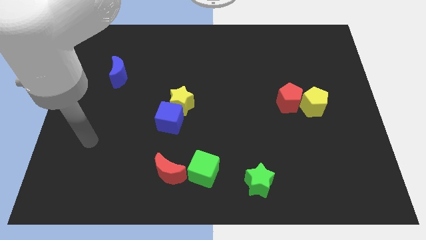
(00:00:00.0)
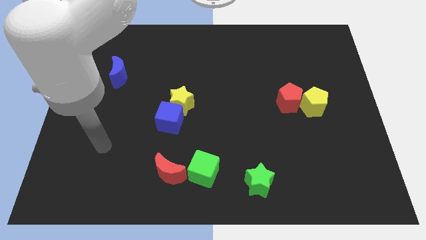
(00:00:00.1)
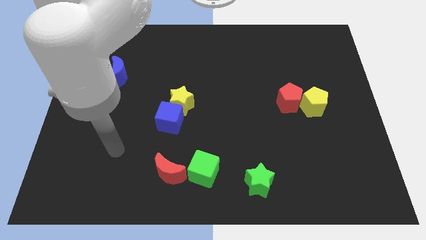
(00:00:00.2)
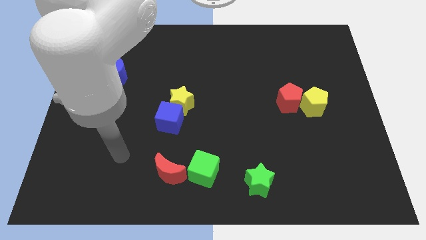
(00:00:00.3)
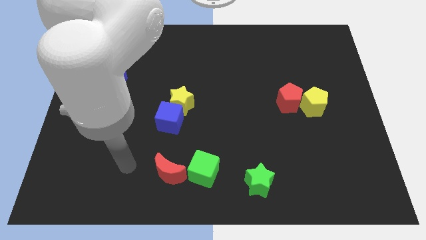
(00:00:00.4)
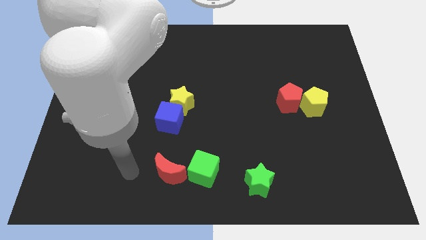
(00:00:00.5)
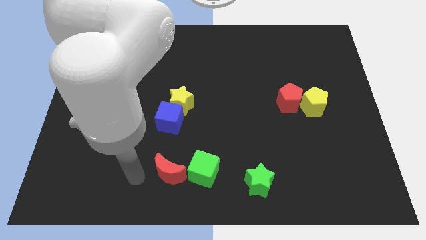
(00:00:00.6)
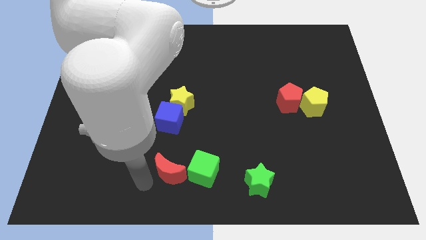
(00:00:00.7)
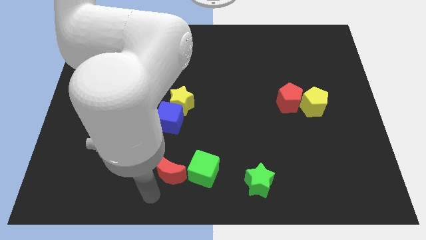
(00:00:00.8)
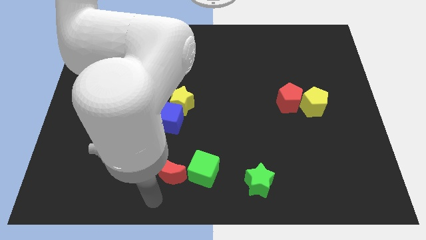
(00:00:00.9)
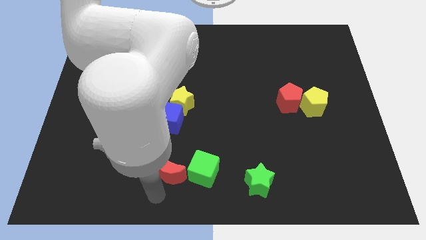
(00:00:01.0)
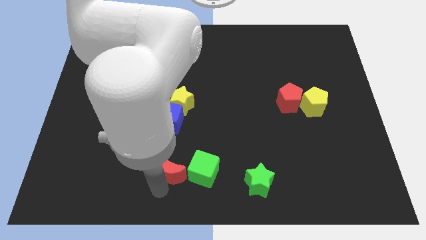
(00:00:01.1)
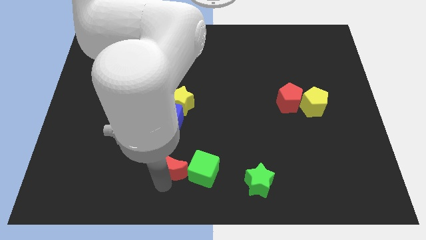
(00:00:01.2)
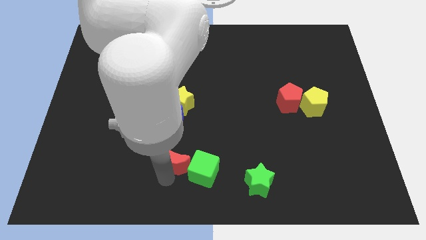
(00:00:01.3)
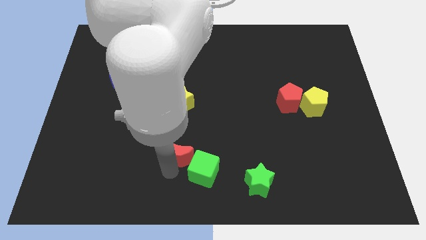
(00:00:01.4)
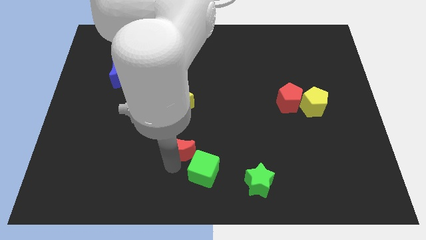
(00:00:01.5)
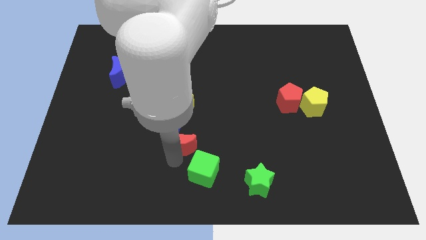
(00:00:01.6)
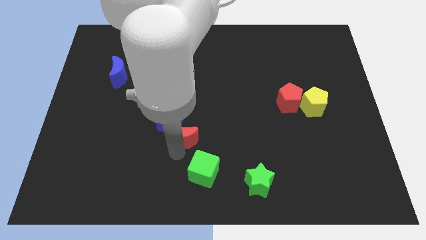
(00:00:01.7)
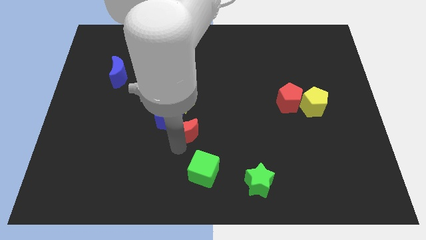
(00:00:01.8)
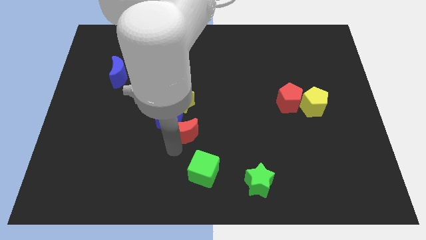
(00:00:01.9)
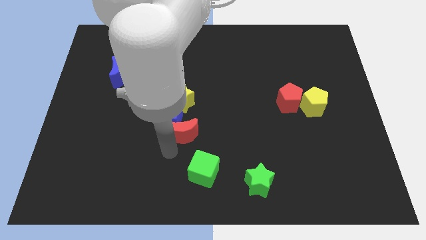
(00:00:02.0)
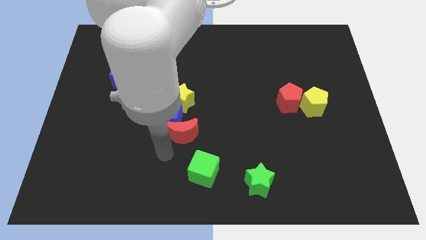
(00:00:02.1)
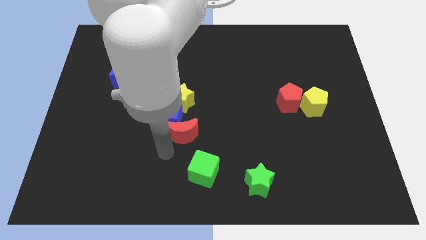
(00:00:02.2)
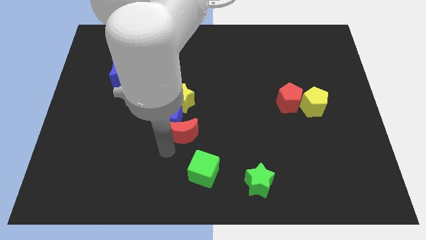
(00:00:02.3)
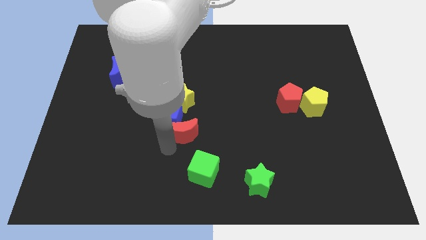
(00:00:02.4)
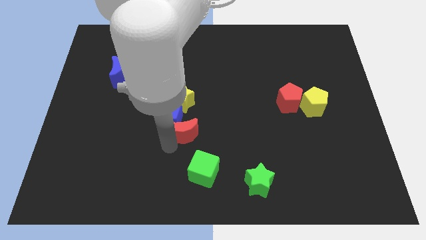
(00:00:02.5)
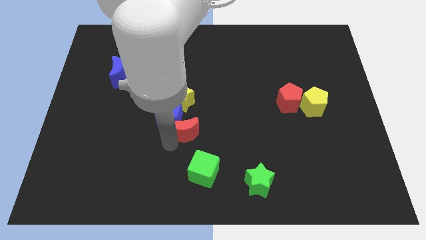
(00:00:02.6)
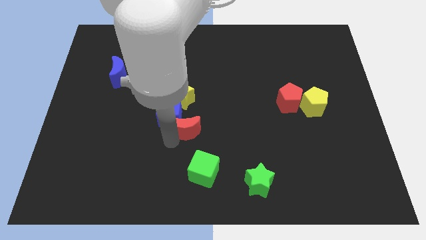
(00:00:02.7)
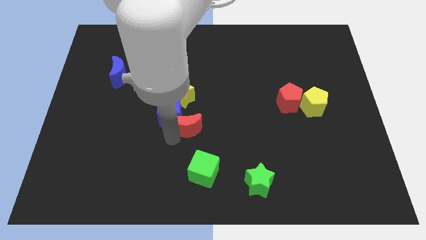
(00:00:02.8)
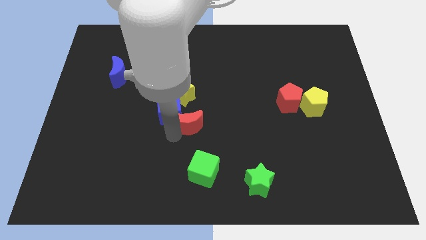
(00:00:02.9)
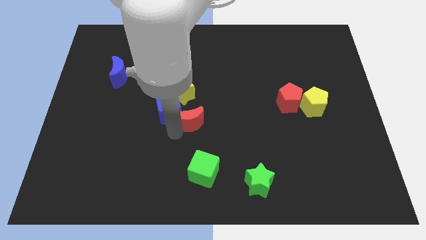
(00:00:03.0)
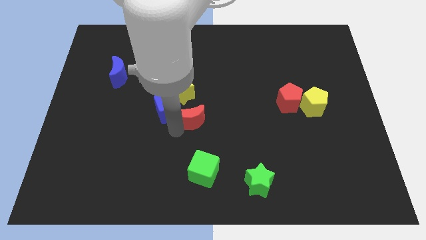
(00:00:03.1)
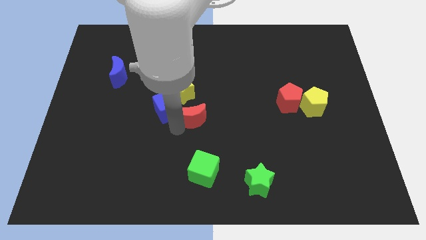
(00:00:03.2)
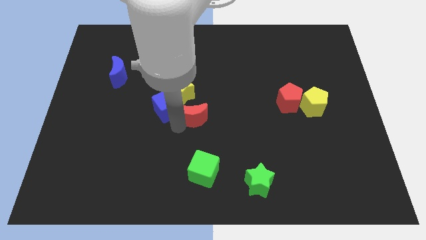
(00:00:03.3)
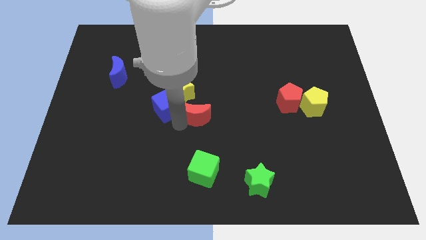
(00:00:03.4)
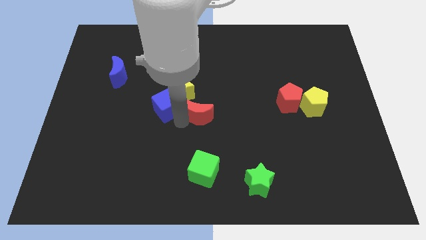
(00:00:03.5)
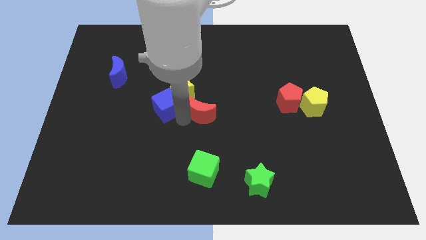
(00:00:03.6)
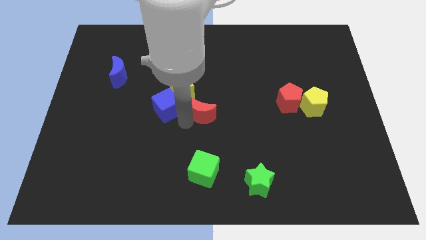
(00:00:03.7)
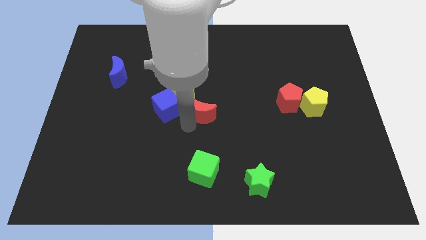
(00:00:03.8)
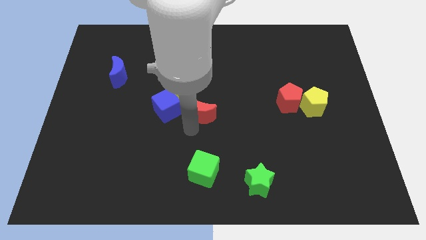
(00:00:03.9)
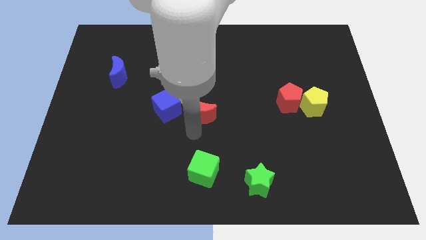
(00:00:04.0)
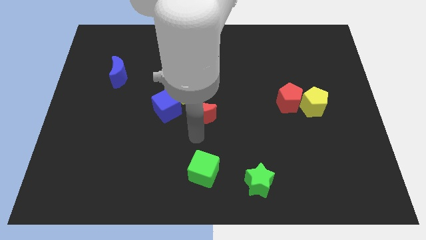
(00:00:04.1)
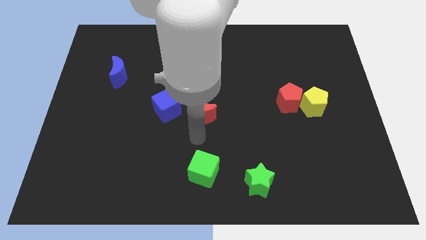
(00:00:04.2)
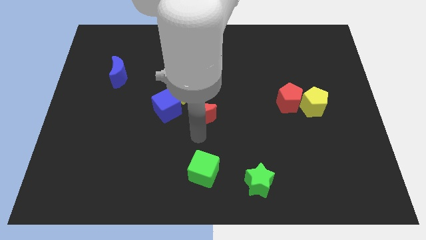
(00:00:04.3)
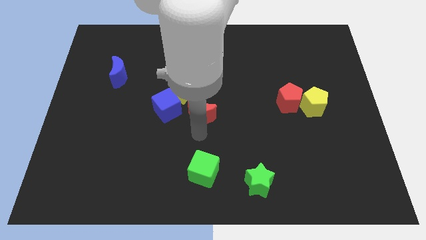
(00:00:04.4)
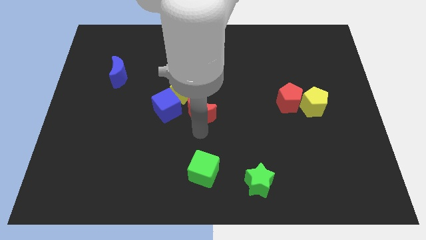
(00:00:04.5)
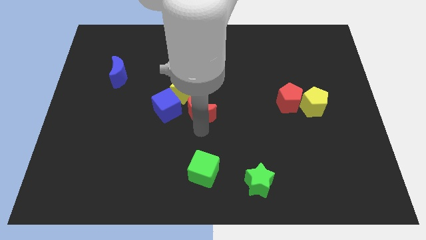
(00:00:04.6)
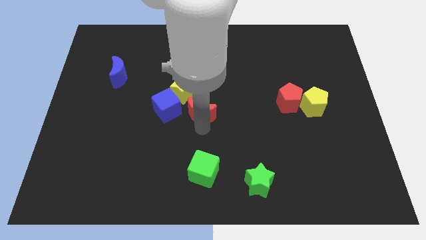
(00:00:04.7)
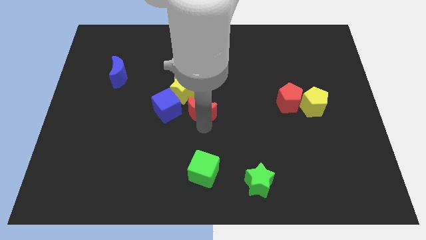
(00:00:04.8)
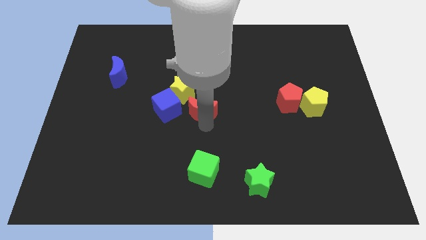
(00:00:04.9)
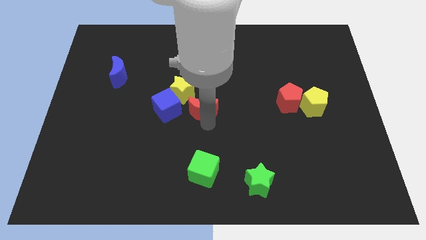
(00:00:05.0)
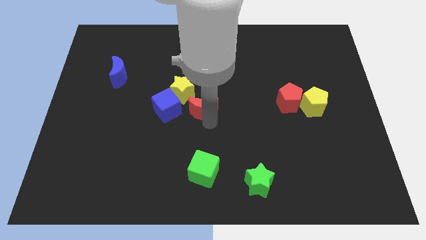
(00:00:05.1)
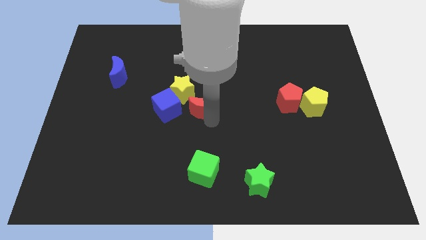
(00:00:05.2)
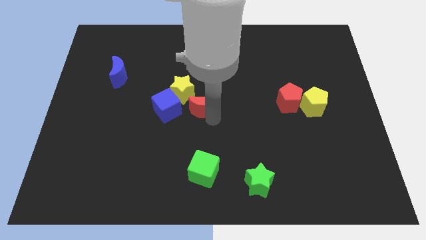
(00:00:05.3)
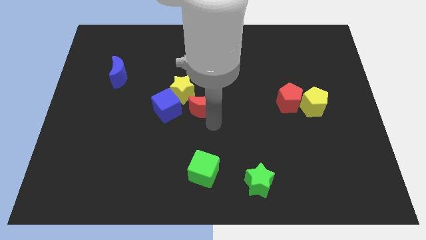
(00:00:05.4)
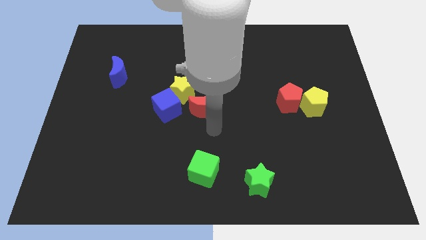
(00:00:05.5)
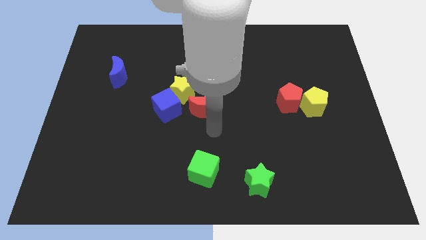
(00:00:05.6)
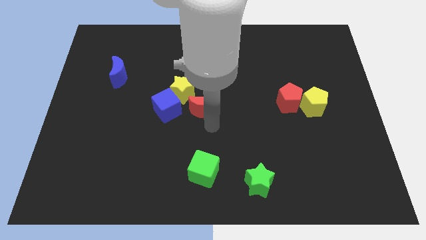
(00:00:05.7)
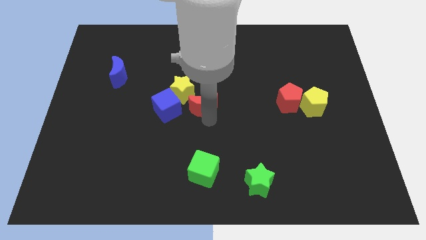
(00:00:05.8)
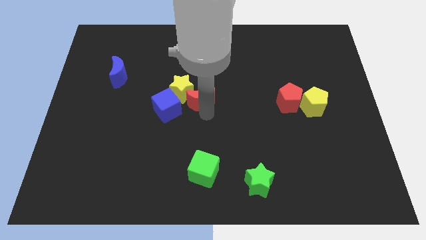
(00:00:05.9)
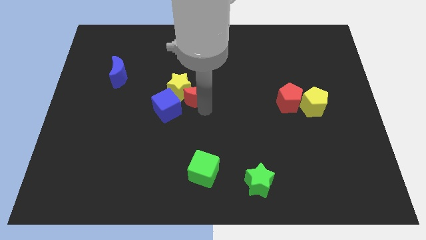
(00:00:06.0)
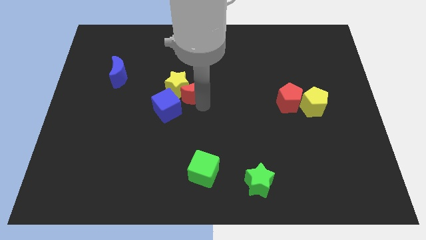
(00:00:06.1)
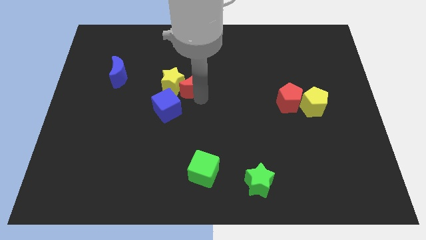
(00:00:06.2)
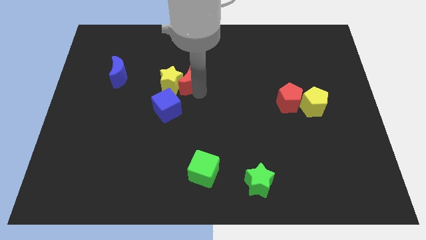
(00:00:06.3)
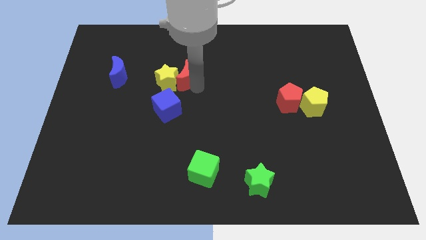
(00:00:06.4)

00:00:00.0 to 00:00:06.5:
slide the red moon to the top side of the blue cube

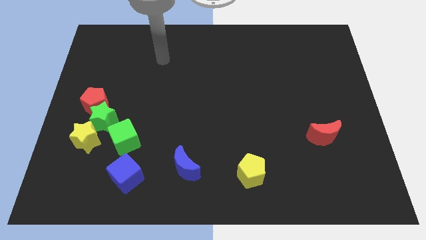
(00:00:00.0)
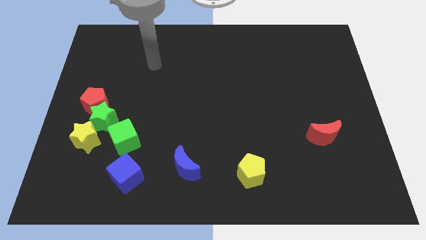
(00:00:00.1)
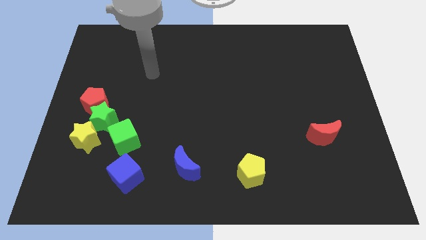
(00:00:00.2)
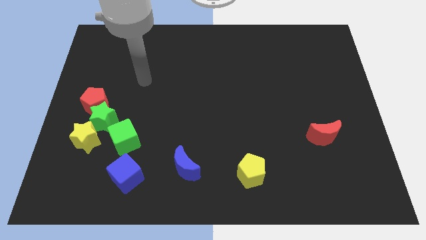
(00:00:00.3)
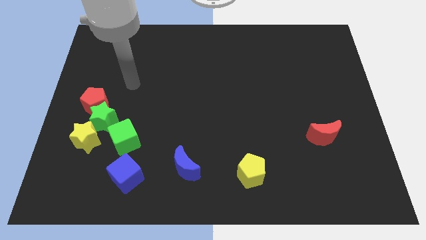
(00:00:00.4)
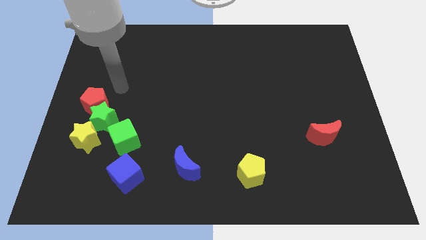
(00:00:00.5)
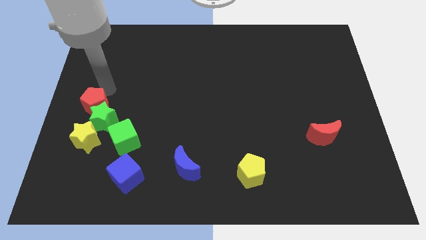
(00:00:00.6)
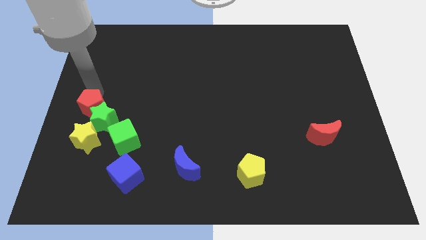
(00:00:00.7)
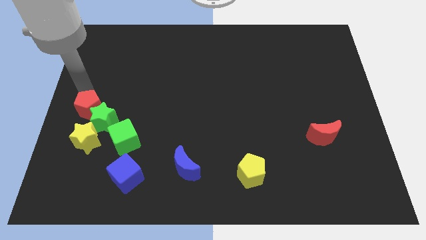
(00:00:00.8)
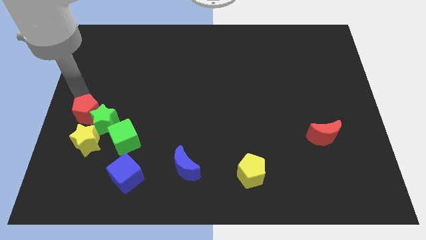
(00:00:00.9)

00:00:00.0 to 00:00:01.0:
move the yellow star to the top left of the blue cube

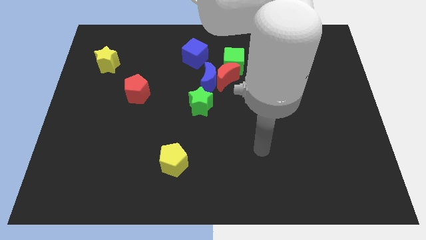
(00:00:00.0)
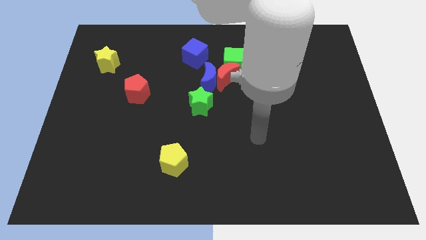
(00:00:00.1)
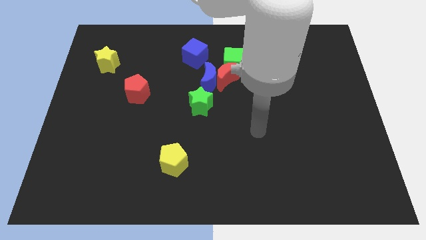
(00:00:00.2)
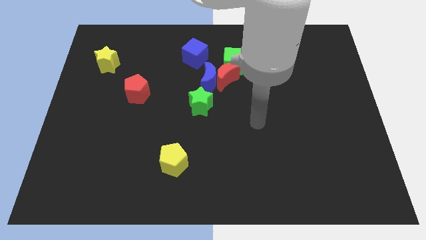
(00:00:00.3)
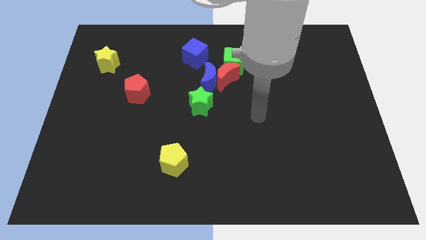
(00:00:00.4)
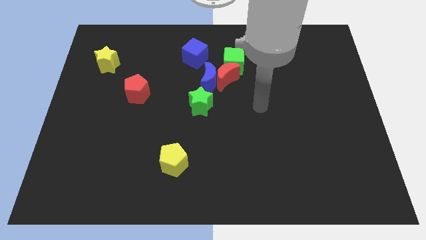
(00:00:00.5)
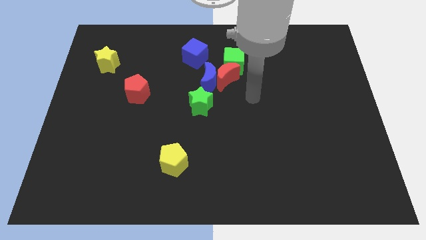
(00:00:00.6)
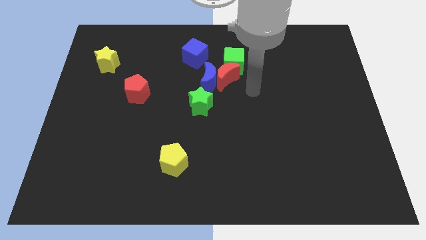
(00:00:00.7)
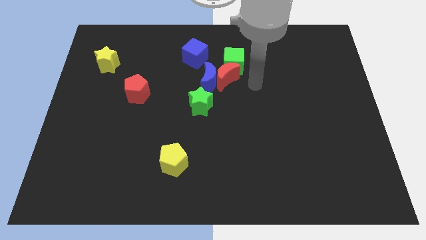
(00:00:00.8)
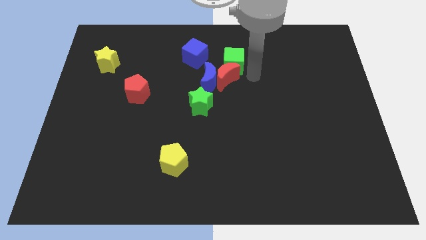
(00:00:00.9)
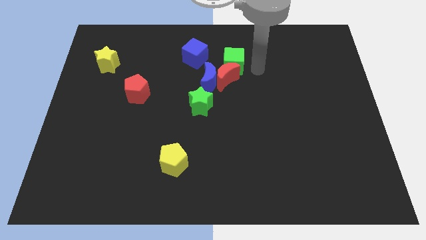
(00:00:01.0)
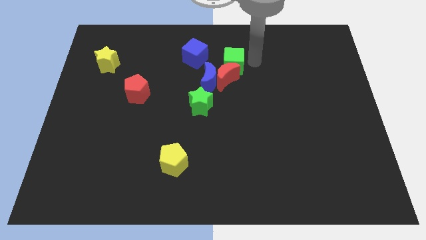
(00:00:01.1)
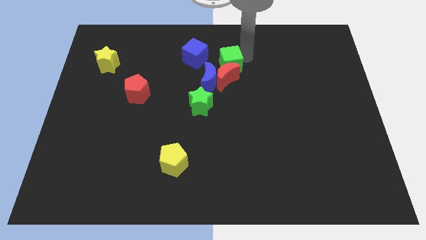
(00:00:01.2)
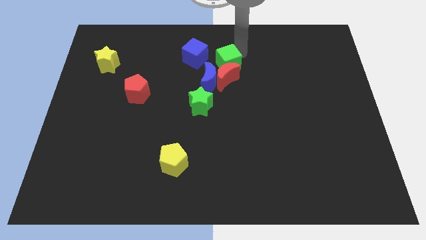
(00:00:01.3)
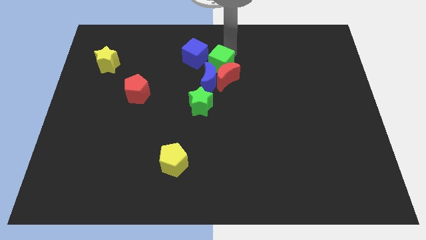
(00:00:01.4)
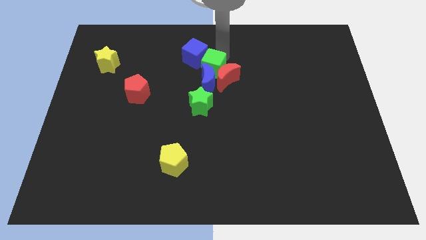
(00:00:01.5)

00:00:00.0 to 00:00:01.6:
put the blue moon to the bottom right side of the green cube
